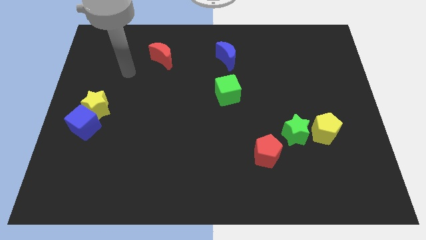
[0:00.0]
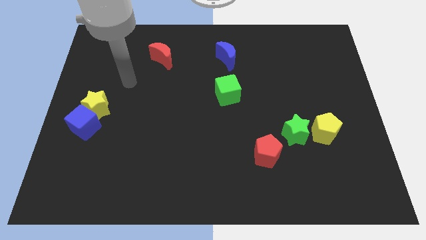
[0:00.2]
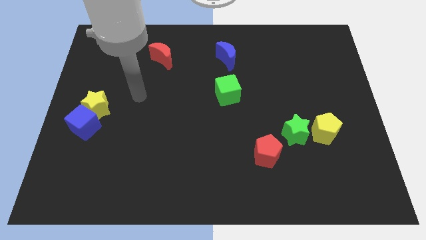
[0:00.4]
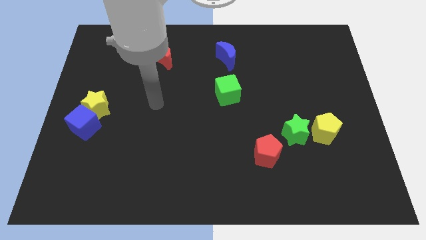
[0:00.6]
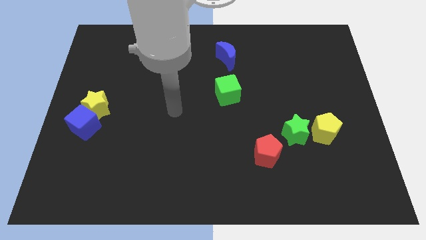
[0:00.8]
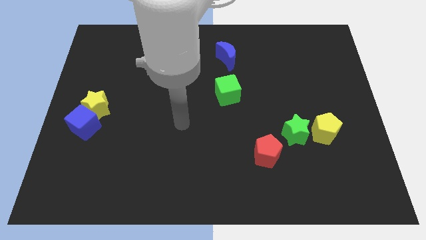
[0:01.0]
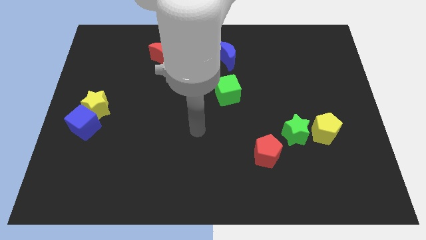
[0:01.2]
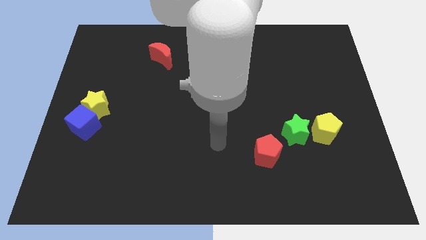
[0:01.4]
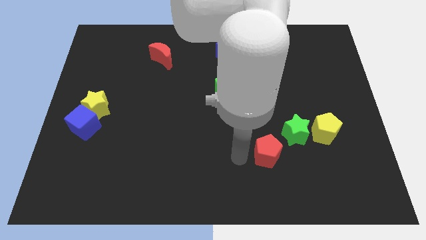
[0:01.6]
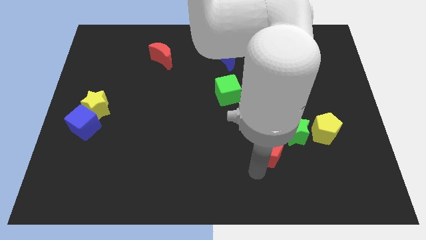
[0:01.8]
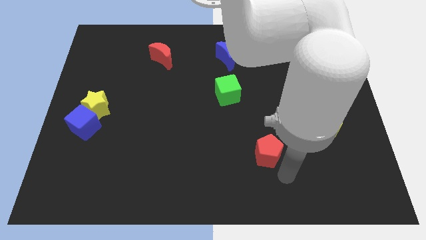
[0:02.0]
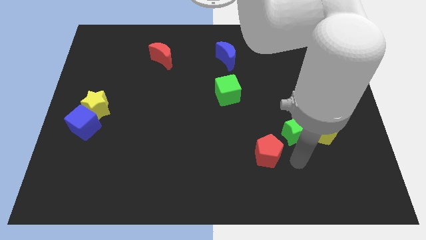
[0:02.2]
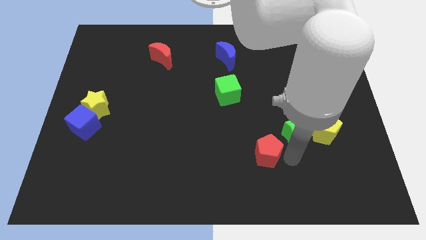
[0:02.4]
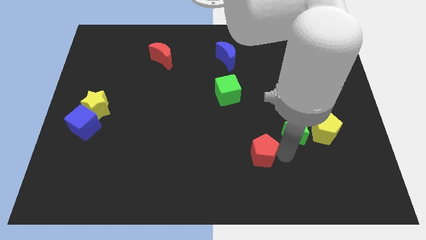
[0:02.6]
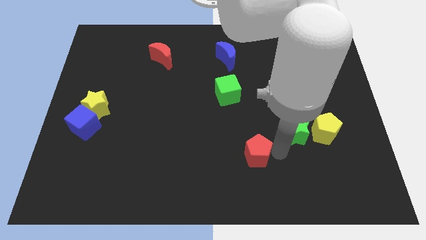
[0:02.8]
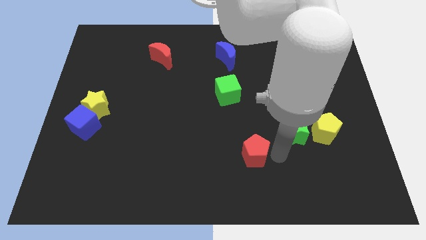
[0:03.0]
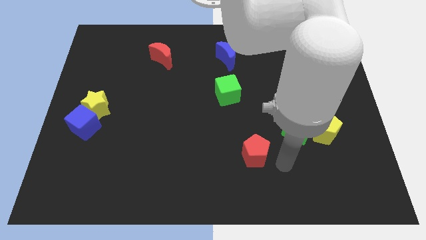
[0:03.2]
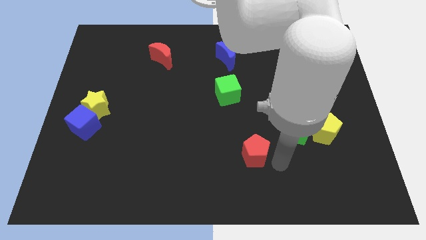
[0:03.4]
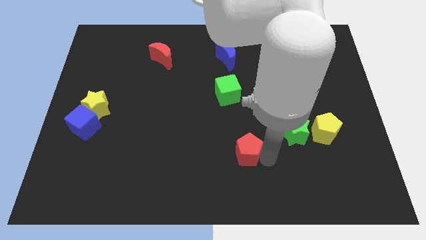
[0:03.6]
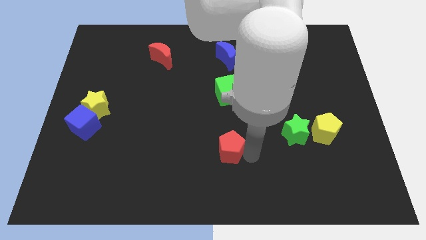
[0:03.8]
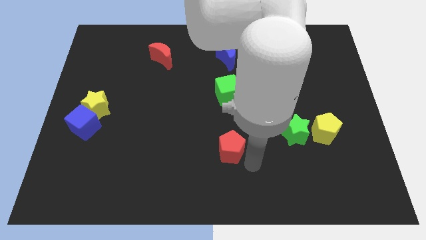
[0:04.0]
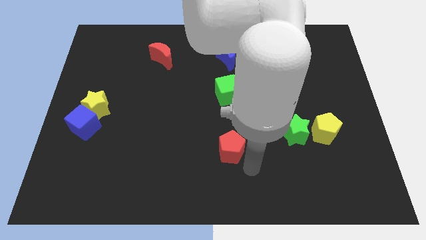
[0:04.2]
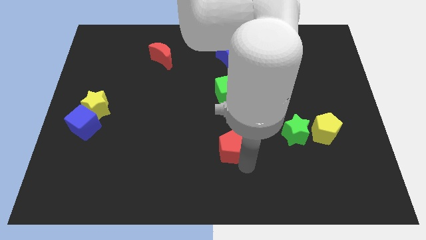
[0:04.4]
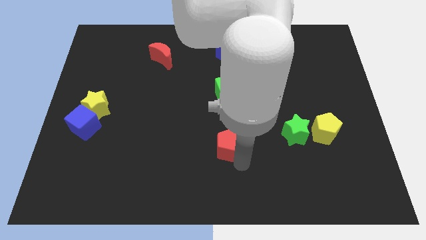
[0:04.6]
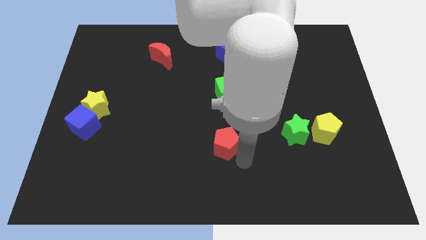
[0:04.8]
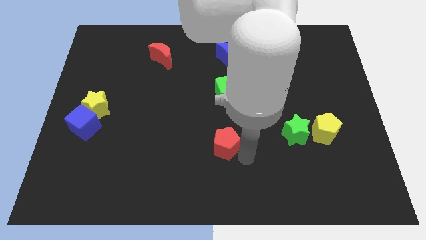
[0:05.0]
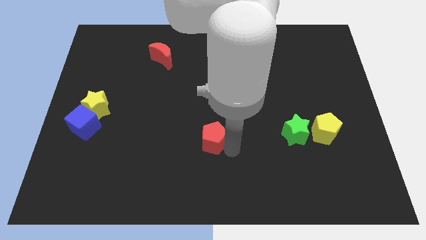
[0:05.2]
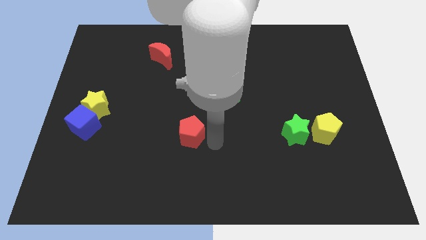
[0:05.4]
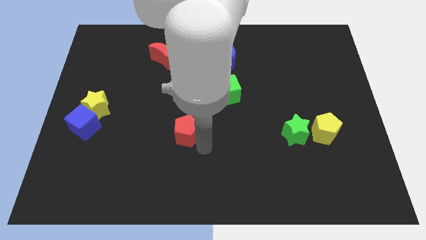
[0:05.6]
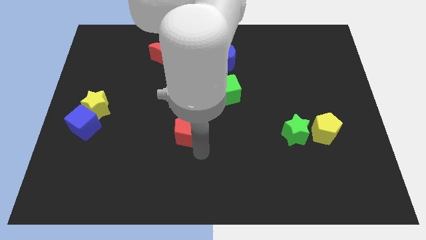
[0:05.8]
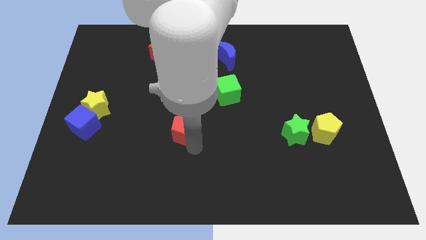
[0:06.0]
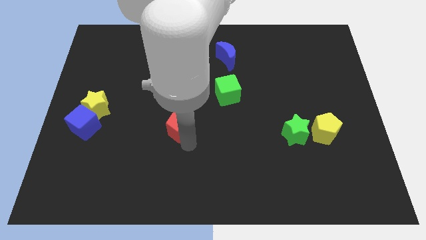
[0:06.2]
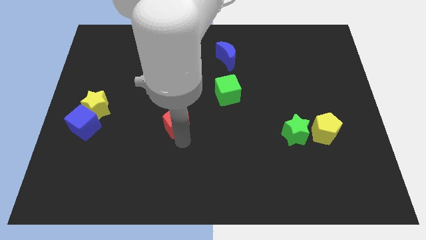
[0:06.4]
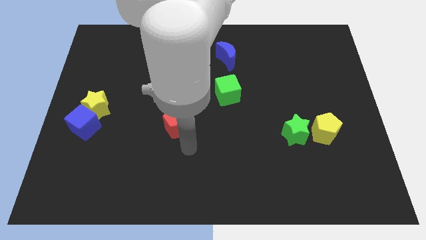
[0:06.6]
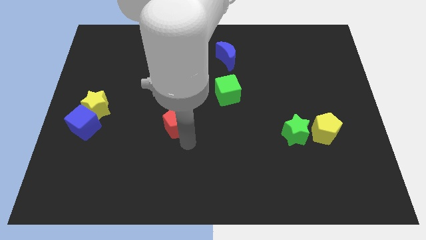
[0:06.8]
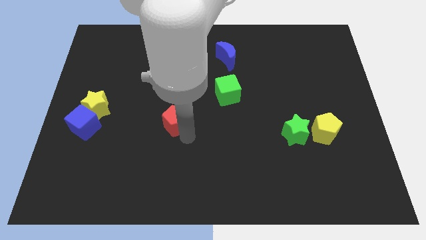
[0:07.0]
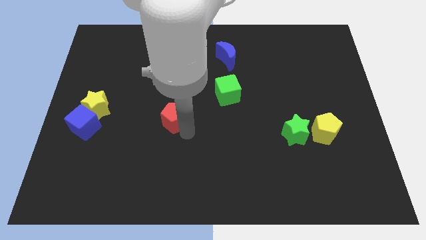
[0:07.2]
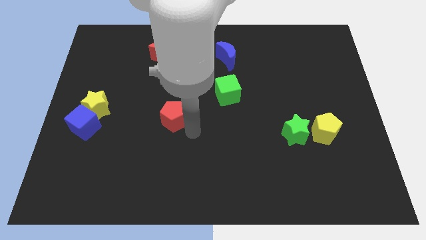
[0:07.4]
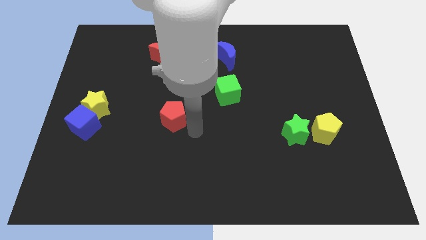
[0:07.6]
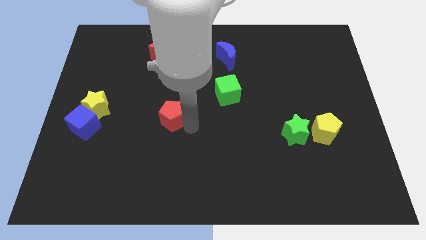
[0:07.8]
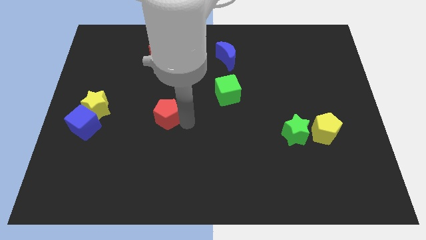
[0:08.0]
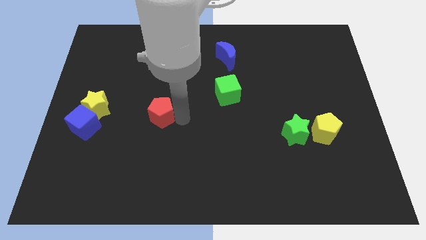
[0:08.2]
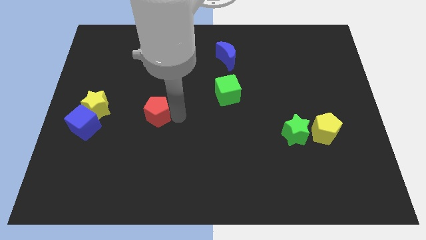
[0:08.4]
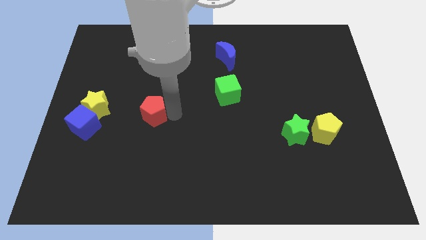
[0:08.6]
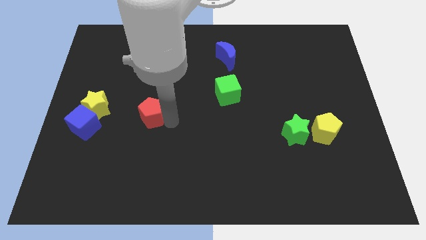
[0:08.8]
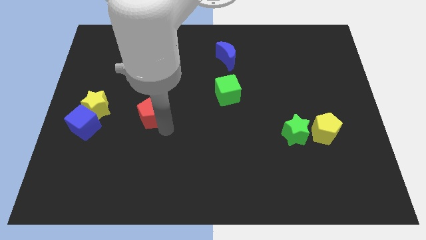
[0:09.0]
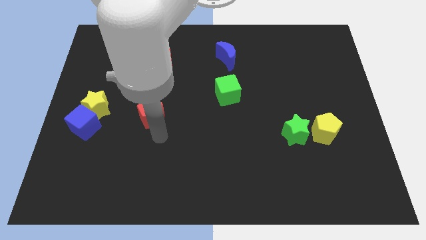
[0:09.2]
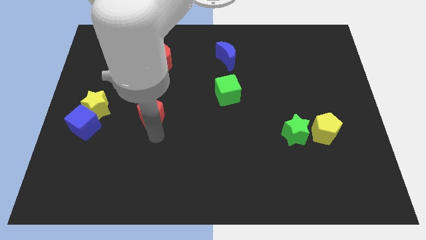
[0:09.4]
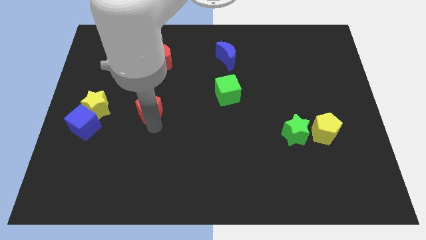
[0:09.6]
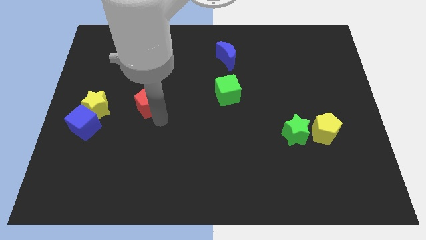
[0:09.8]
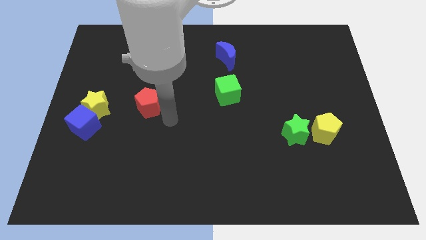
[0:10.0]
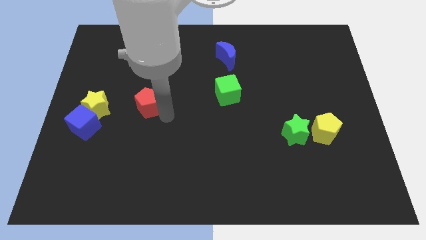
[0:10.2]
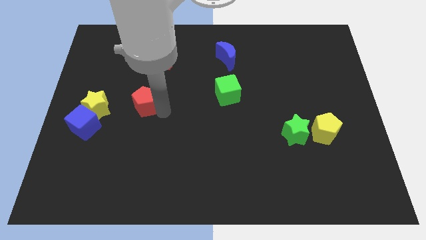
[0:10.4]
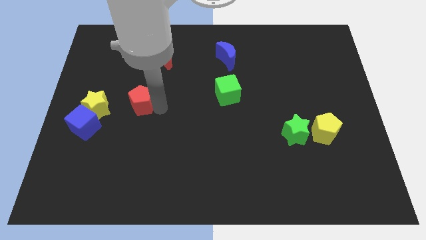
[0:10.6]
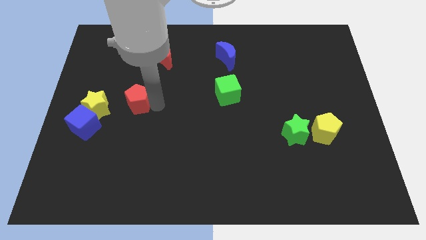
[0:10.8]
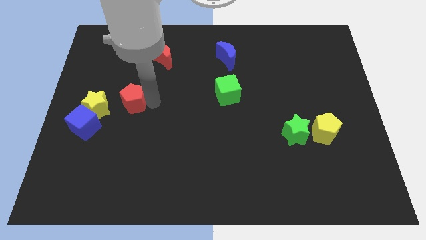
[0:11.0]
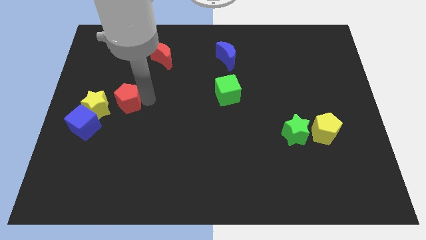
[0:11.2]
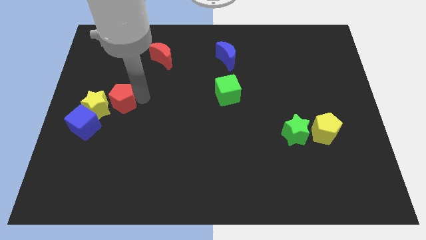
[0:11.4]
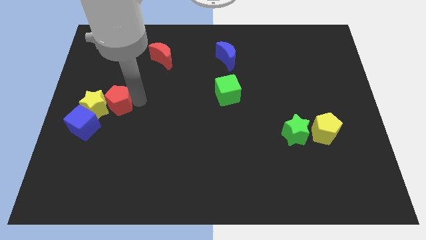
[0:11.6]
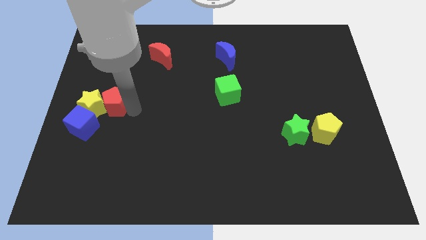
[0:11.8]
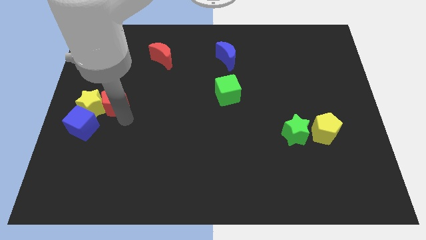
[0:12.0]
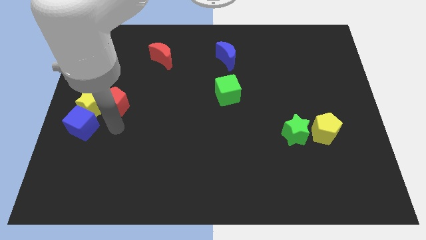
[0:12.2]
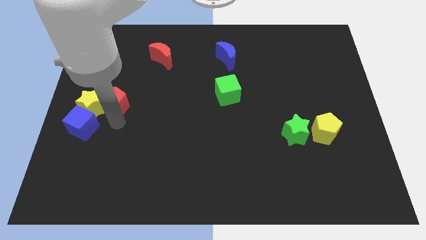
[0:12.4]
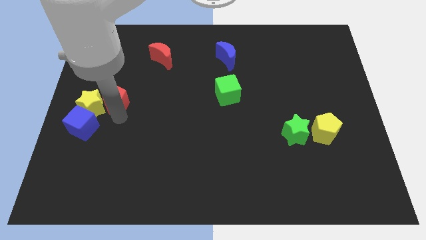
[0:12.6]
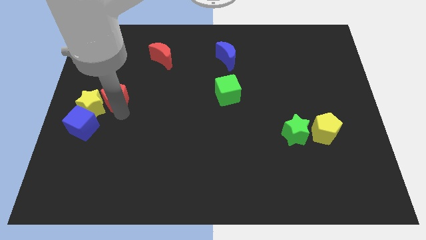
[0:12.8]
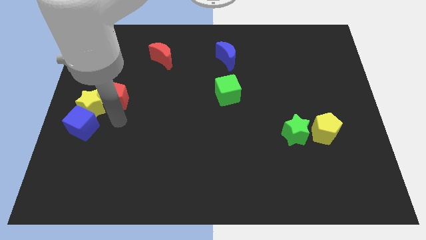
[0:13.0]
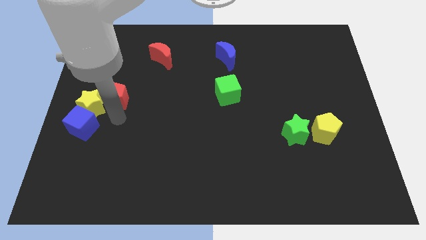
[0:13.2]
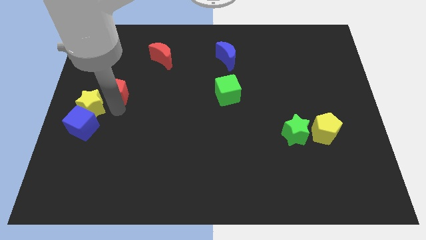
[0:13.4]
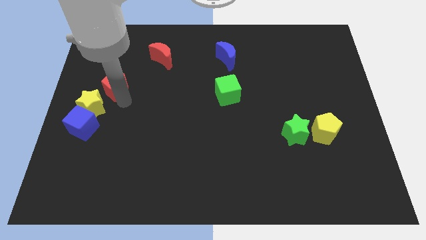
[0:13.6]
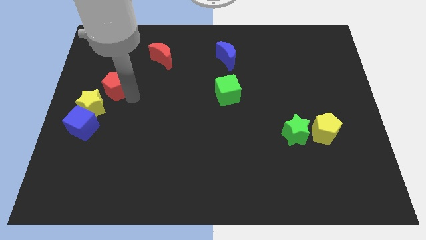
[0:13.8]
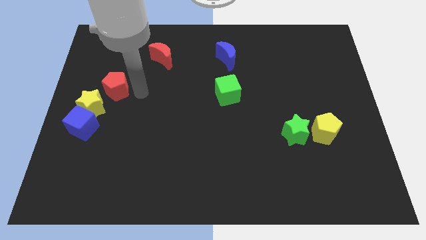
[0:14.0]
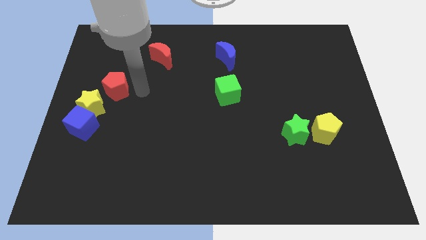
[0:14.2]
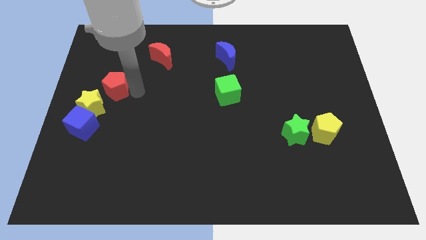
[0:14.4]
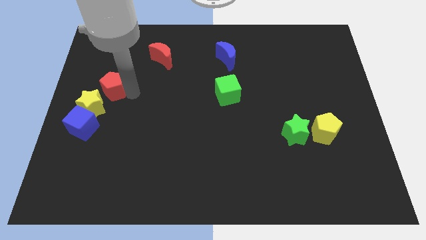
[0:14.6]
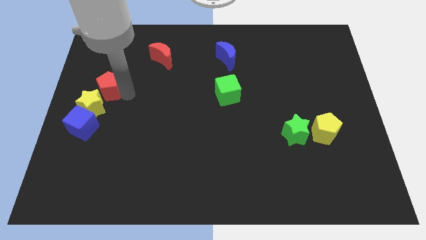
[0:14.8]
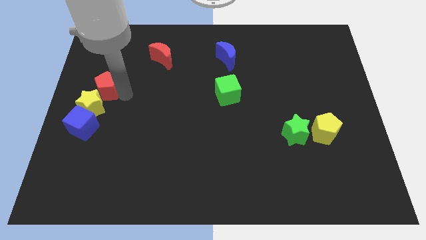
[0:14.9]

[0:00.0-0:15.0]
slide the red pentagon to the left side of the board
